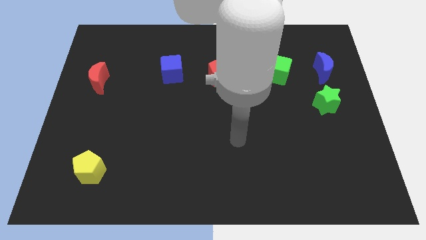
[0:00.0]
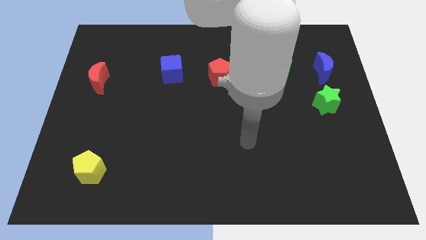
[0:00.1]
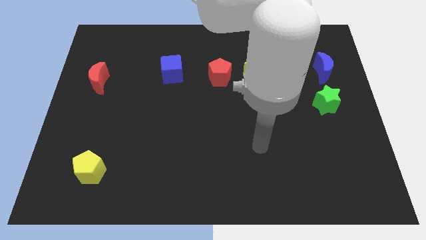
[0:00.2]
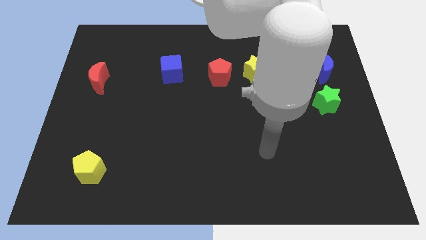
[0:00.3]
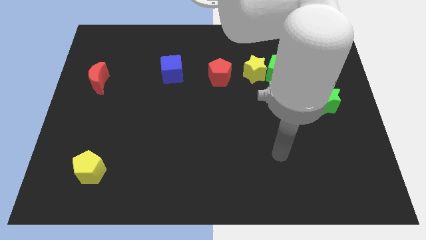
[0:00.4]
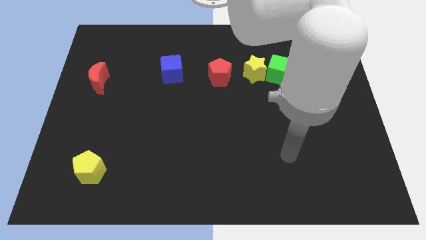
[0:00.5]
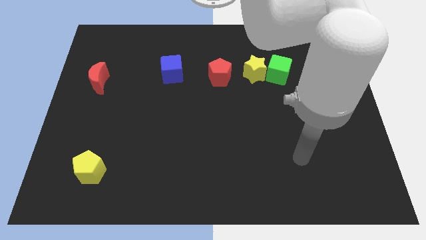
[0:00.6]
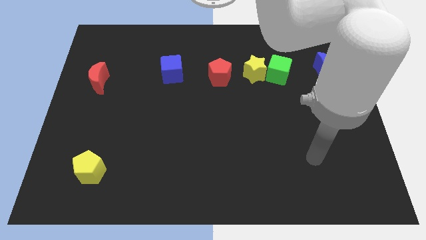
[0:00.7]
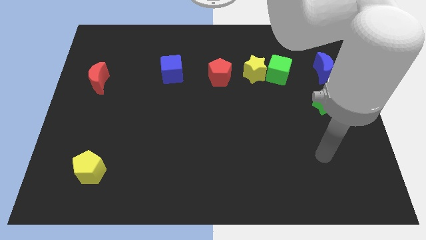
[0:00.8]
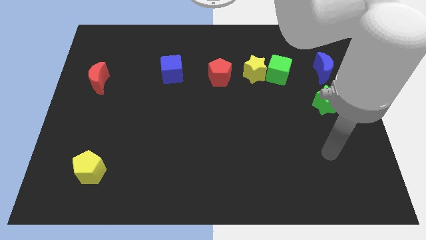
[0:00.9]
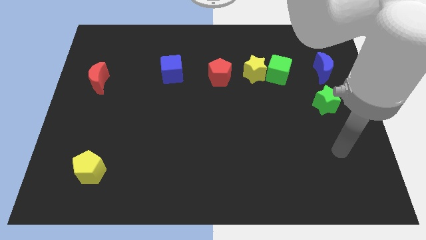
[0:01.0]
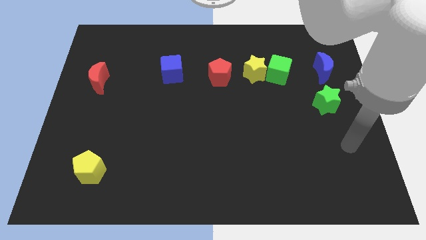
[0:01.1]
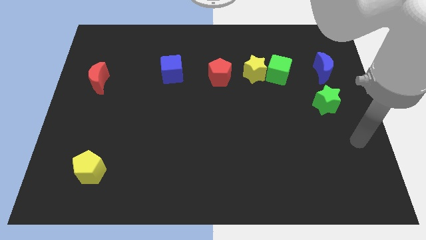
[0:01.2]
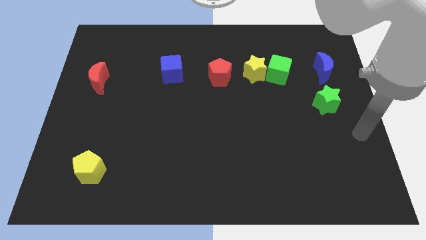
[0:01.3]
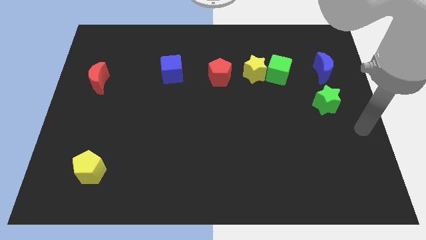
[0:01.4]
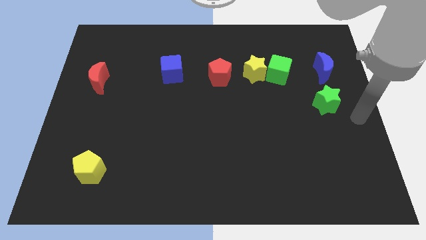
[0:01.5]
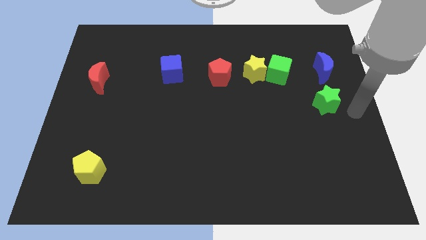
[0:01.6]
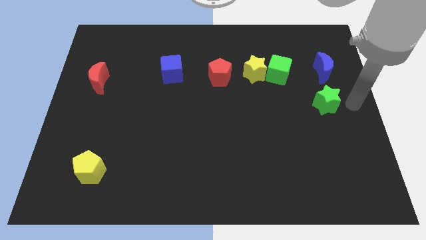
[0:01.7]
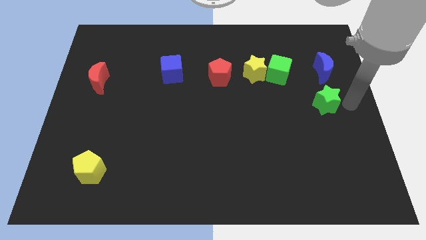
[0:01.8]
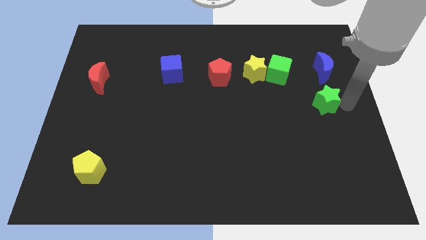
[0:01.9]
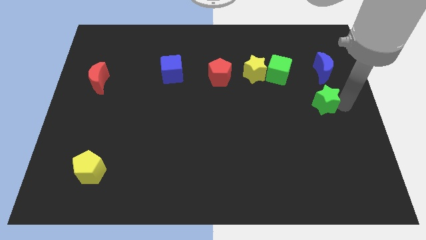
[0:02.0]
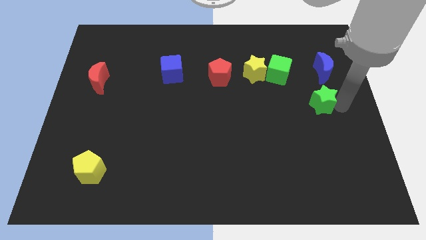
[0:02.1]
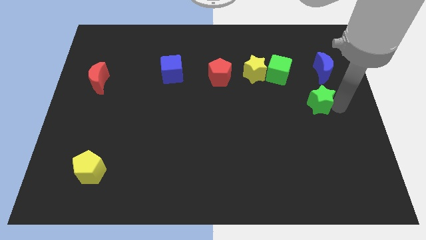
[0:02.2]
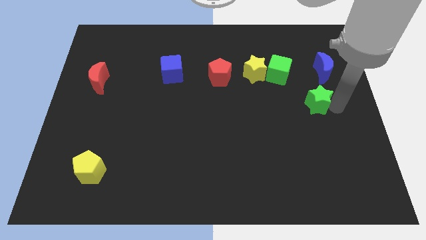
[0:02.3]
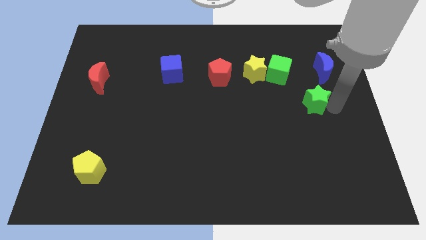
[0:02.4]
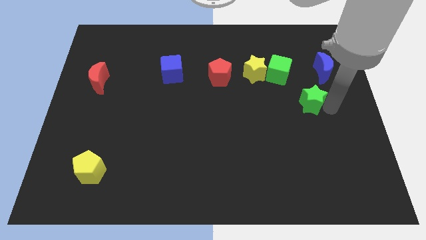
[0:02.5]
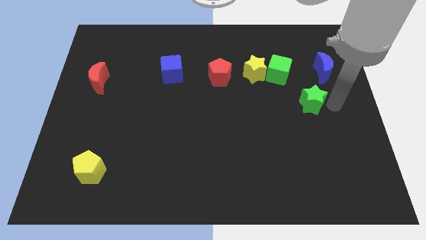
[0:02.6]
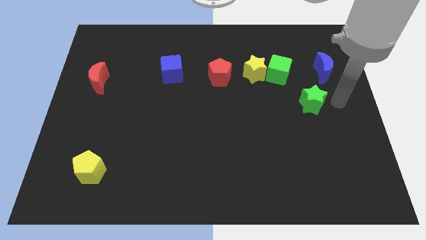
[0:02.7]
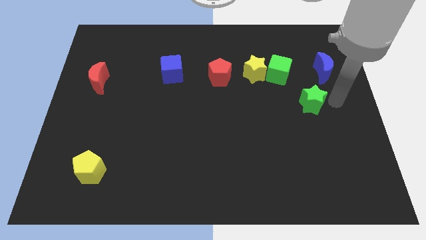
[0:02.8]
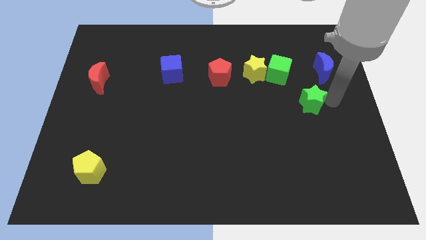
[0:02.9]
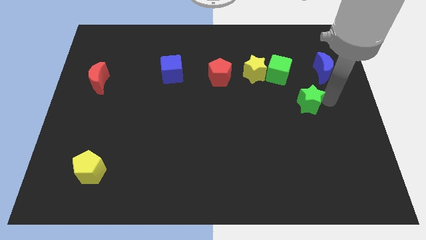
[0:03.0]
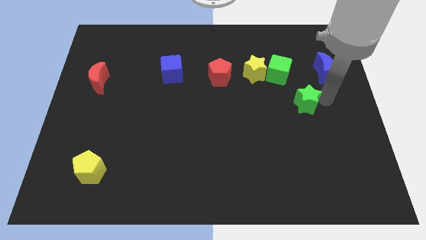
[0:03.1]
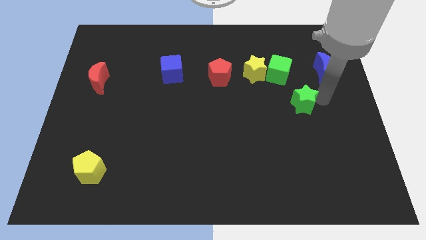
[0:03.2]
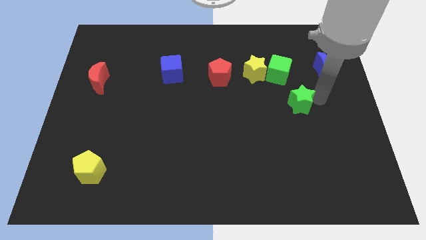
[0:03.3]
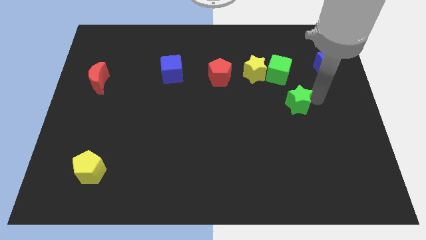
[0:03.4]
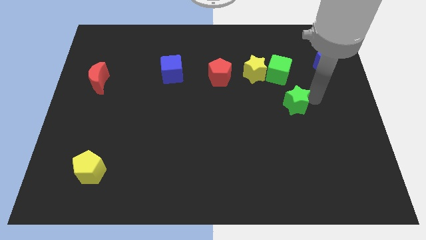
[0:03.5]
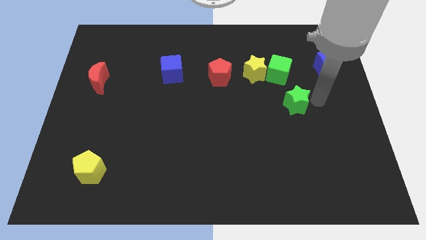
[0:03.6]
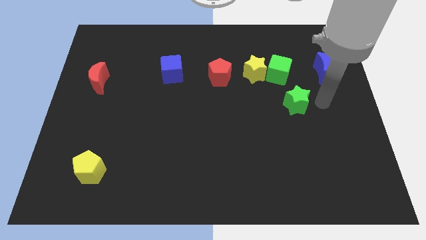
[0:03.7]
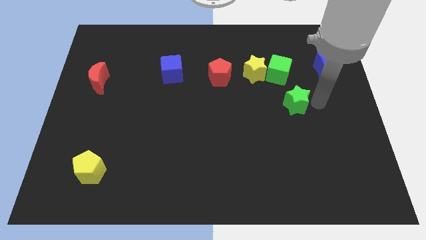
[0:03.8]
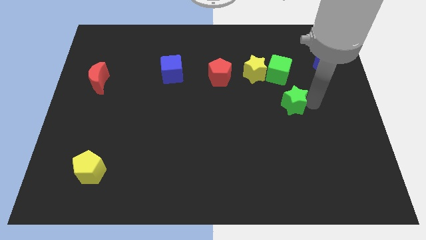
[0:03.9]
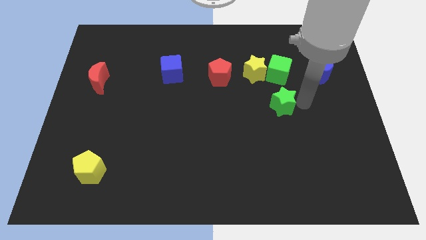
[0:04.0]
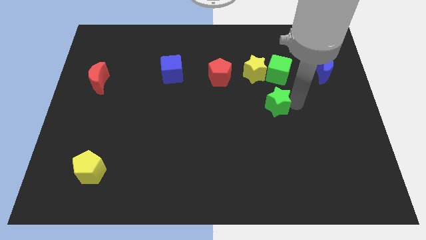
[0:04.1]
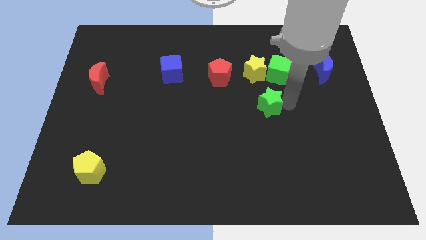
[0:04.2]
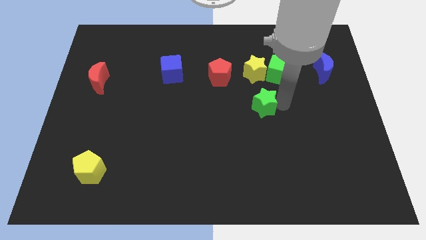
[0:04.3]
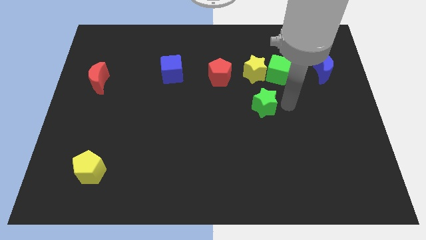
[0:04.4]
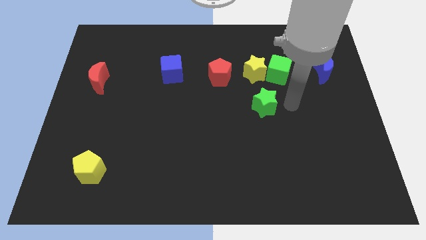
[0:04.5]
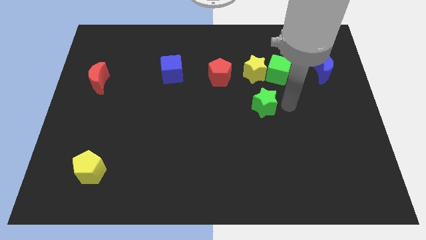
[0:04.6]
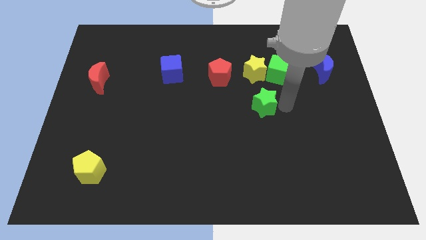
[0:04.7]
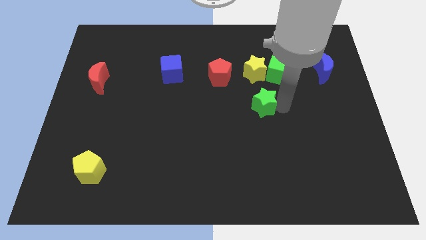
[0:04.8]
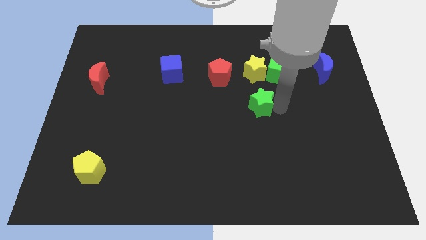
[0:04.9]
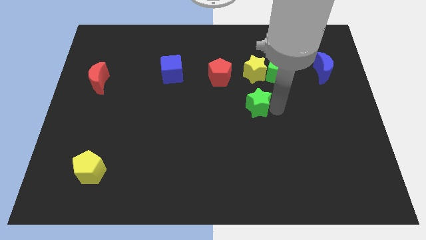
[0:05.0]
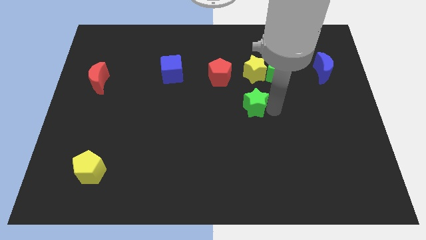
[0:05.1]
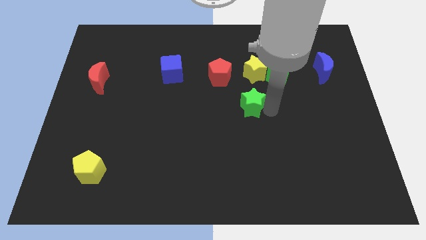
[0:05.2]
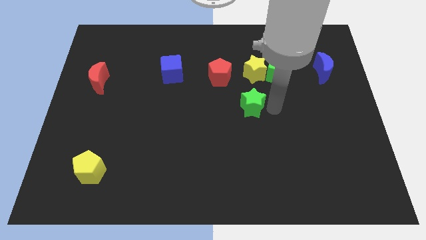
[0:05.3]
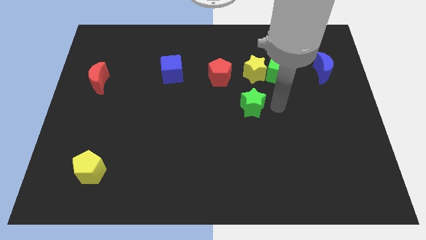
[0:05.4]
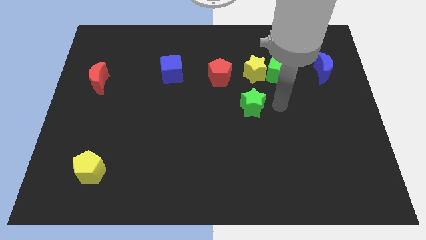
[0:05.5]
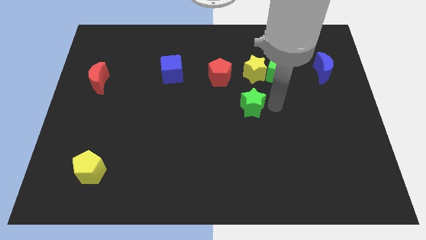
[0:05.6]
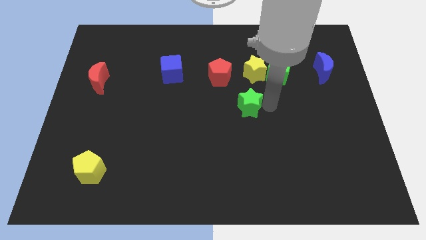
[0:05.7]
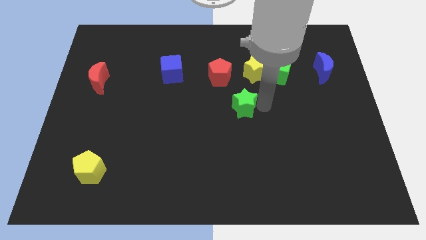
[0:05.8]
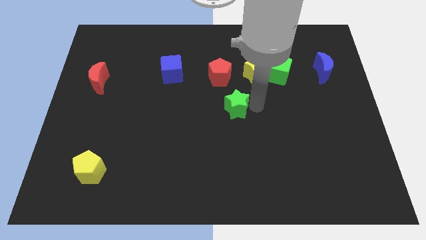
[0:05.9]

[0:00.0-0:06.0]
move the green star to the left

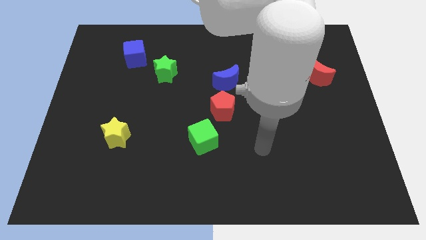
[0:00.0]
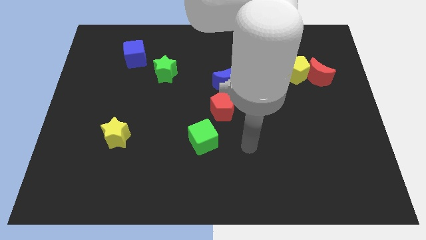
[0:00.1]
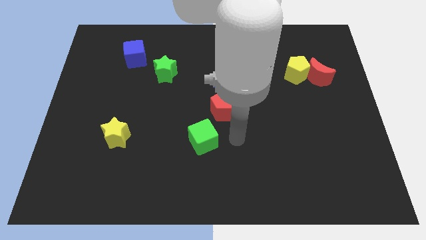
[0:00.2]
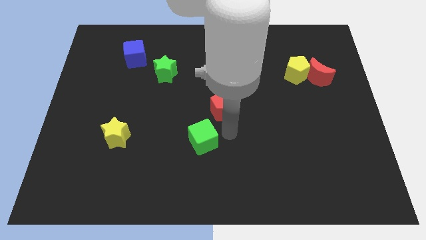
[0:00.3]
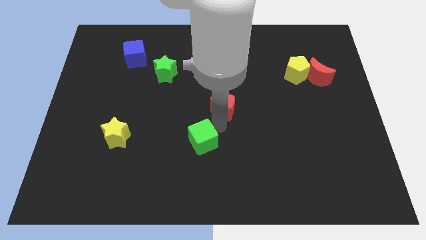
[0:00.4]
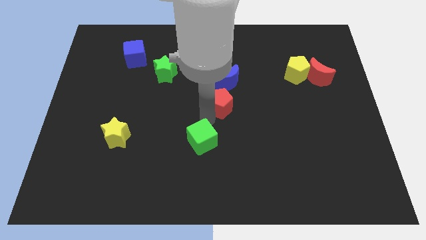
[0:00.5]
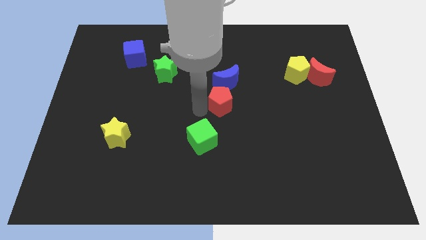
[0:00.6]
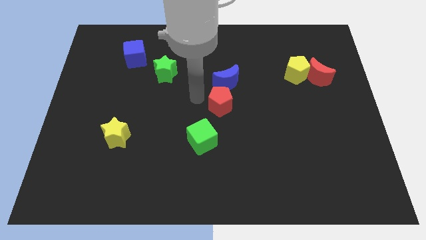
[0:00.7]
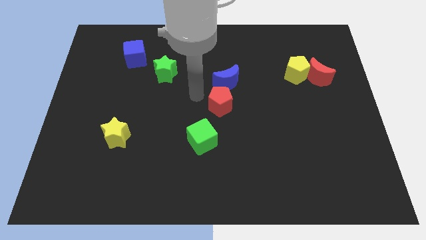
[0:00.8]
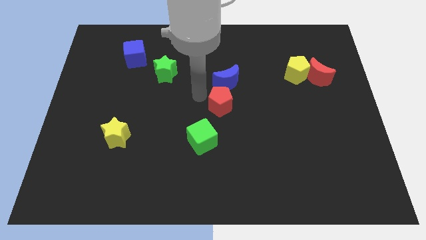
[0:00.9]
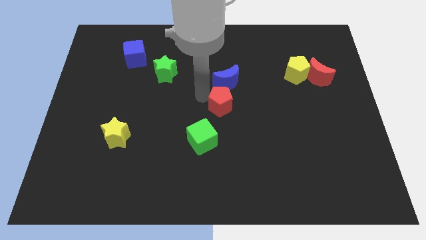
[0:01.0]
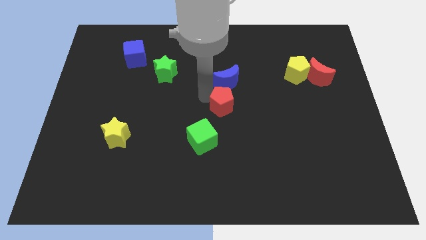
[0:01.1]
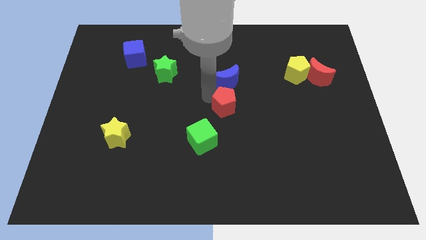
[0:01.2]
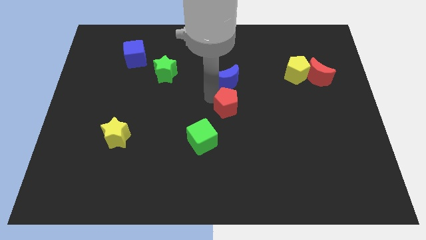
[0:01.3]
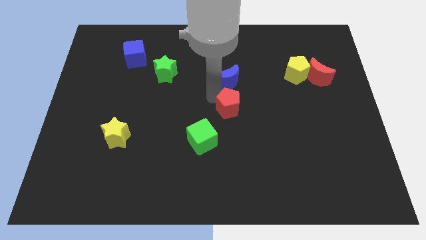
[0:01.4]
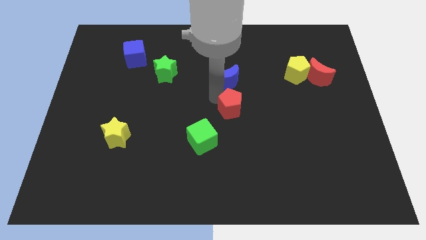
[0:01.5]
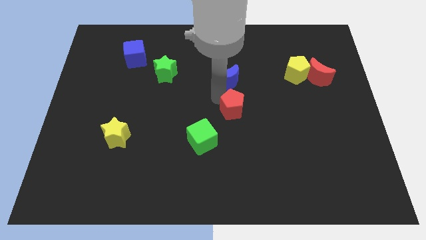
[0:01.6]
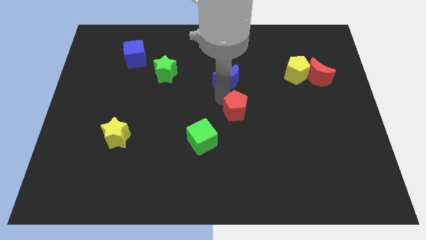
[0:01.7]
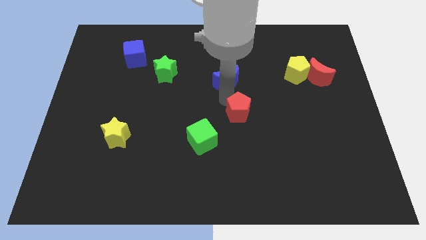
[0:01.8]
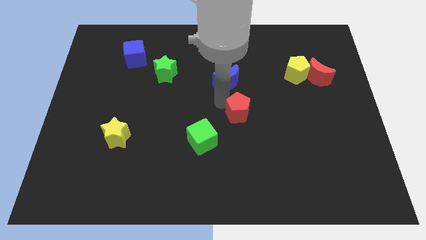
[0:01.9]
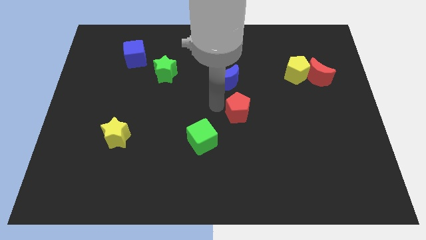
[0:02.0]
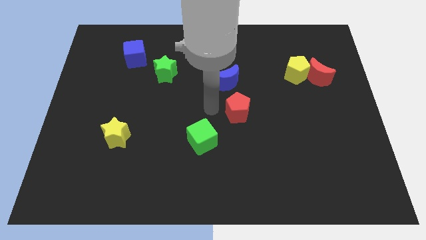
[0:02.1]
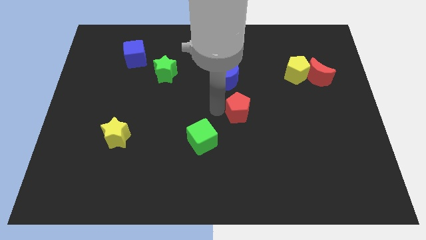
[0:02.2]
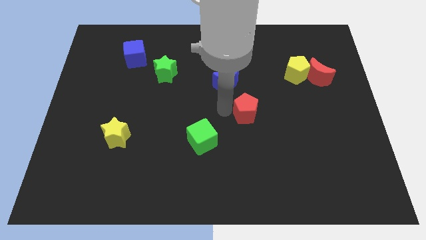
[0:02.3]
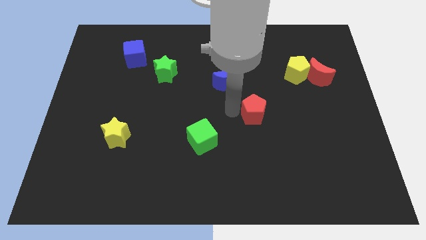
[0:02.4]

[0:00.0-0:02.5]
slightly slide the red pentagon to the right
